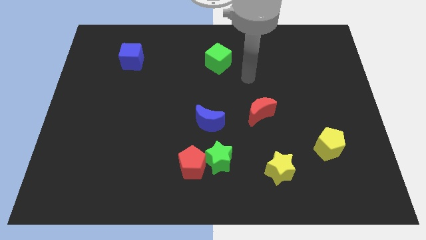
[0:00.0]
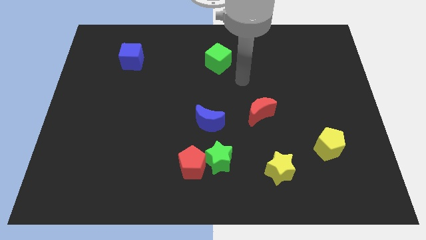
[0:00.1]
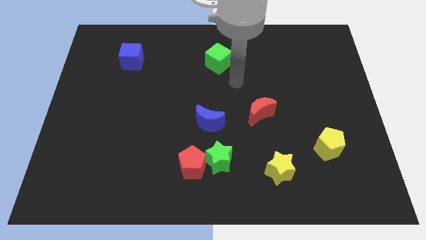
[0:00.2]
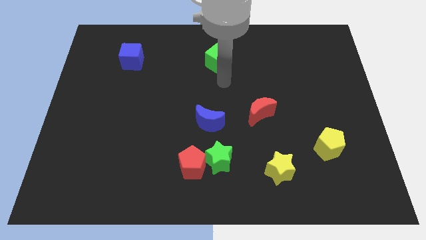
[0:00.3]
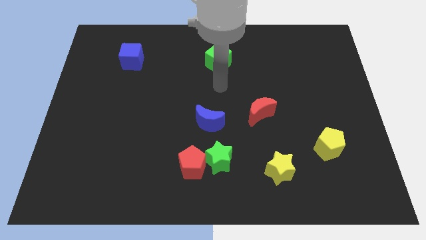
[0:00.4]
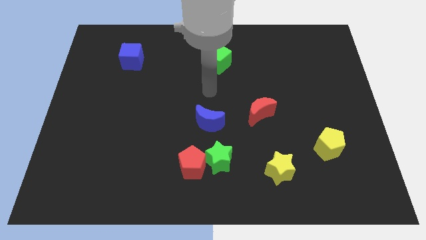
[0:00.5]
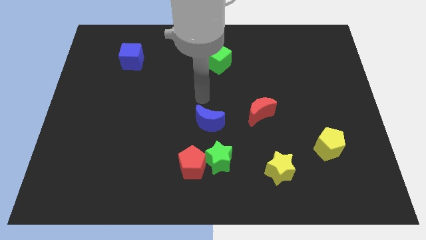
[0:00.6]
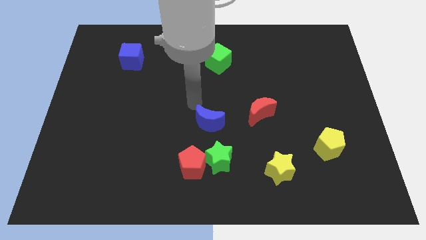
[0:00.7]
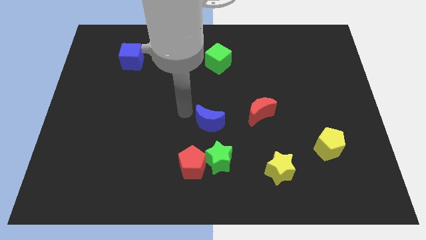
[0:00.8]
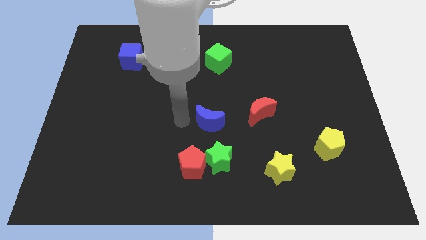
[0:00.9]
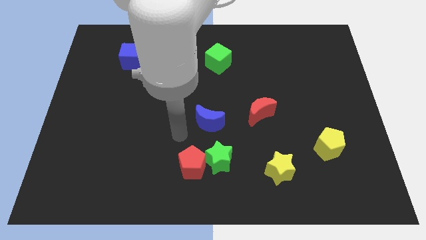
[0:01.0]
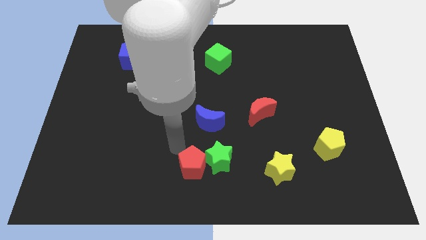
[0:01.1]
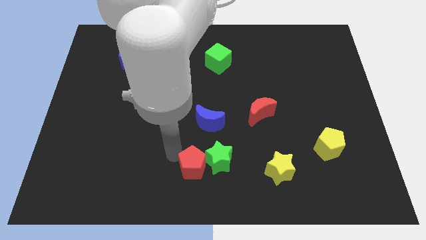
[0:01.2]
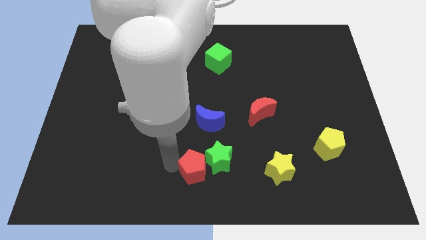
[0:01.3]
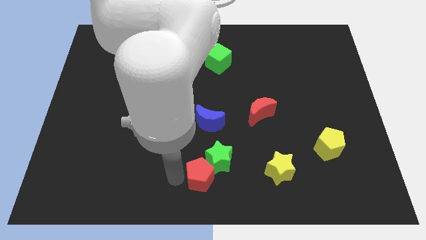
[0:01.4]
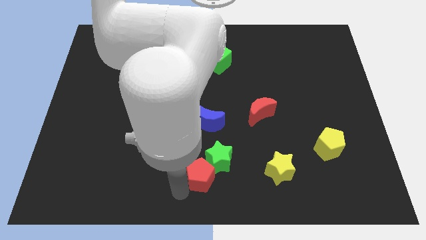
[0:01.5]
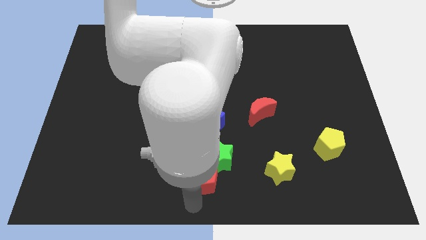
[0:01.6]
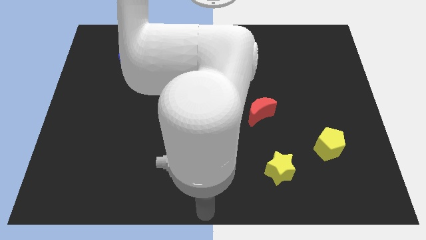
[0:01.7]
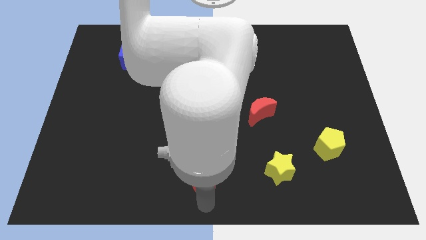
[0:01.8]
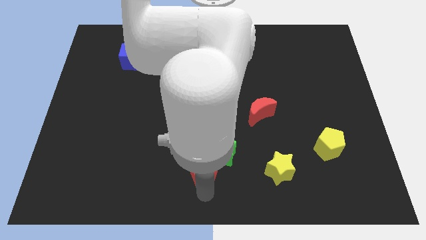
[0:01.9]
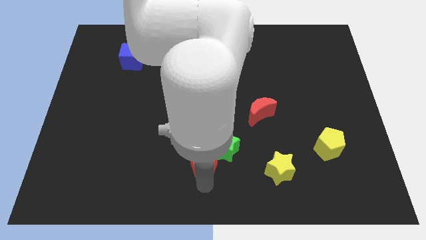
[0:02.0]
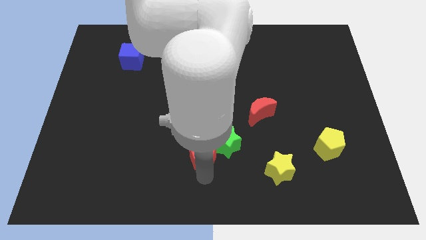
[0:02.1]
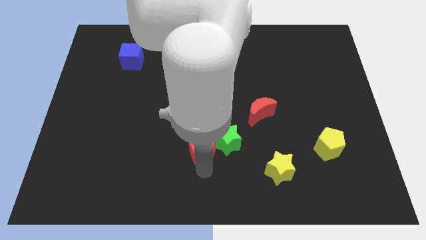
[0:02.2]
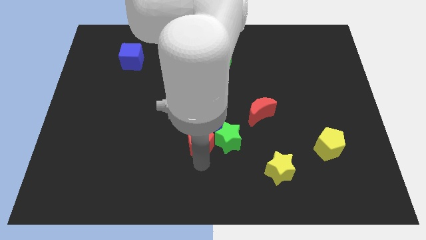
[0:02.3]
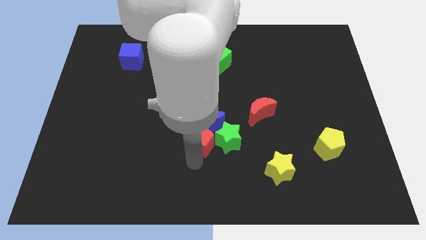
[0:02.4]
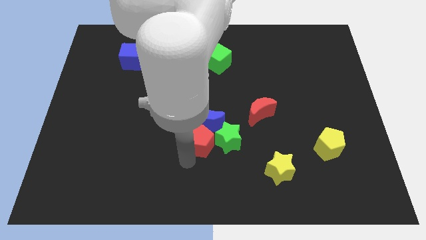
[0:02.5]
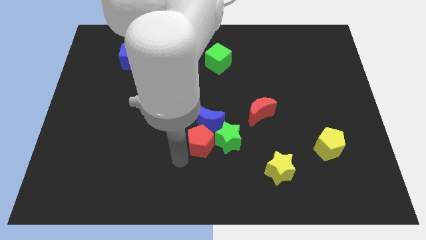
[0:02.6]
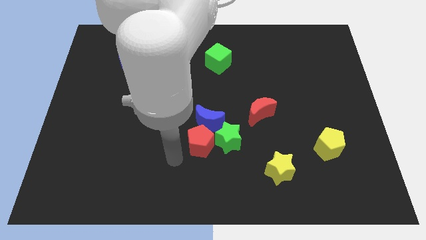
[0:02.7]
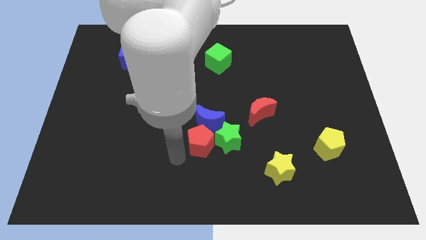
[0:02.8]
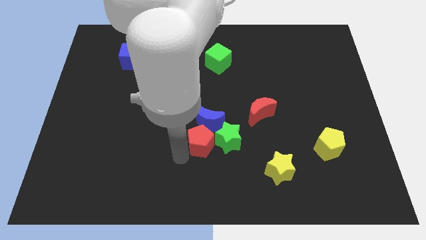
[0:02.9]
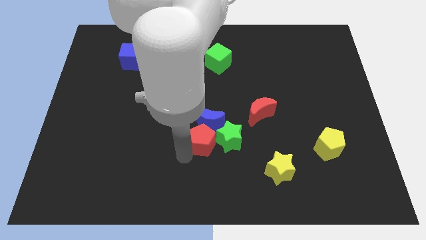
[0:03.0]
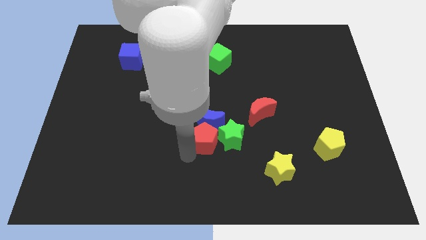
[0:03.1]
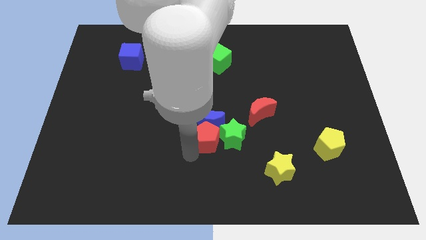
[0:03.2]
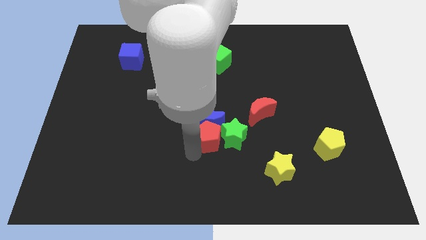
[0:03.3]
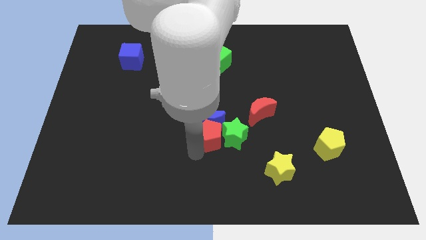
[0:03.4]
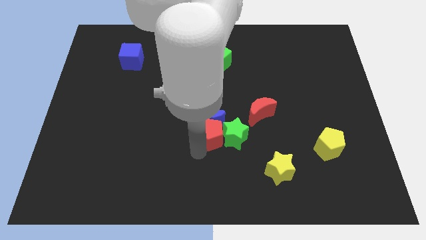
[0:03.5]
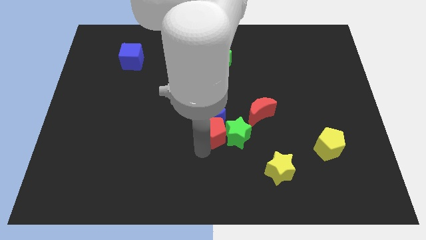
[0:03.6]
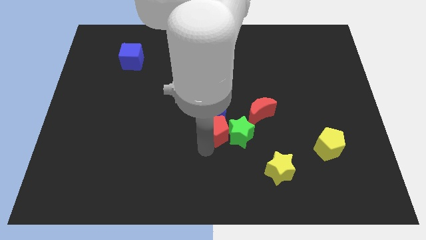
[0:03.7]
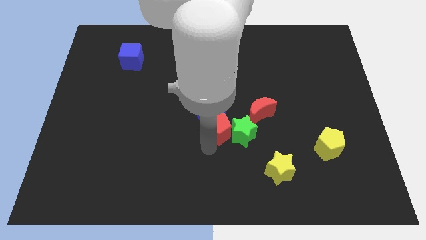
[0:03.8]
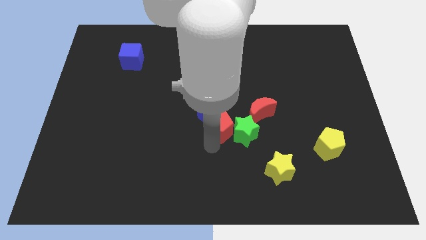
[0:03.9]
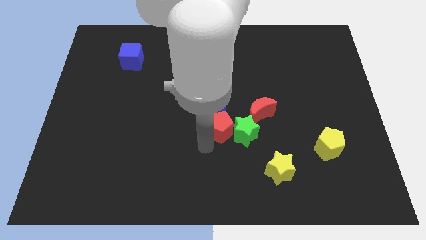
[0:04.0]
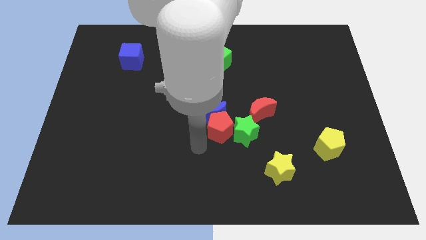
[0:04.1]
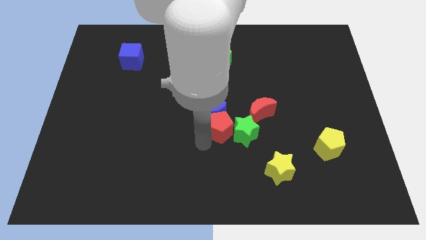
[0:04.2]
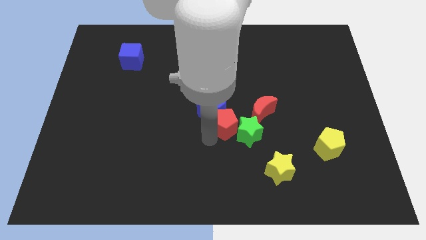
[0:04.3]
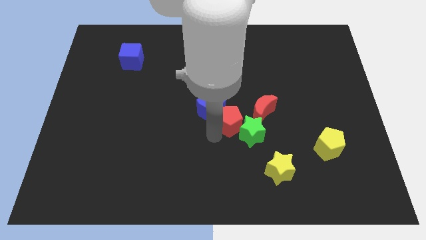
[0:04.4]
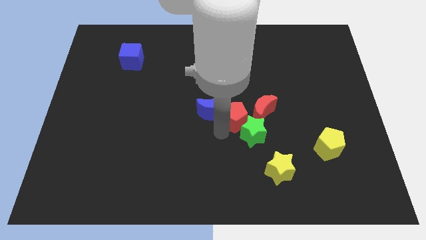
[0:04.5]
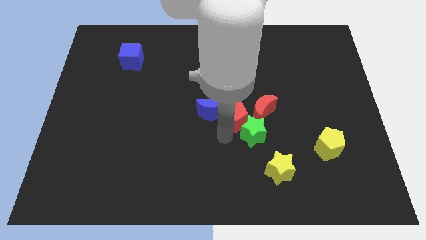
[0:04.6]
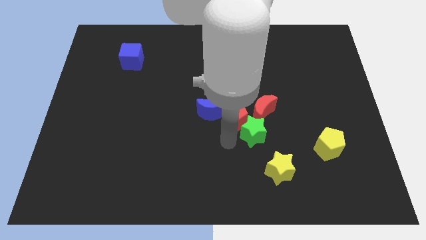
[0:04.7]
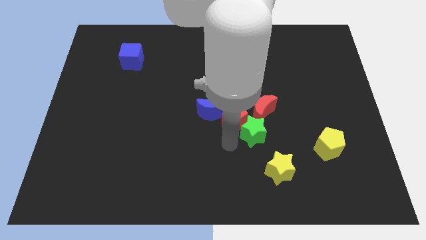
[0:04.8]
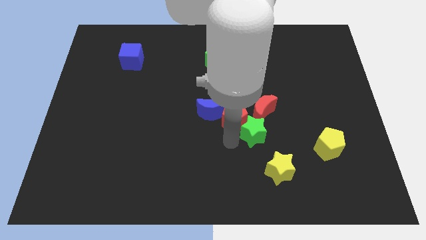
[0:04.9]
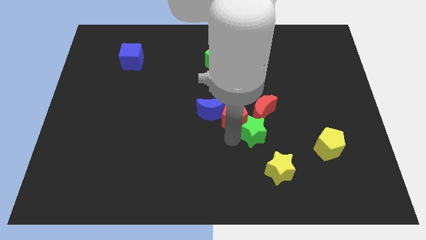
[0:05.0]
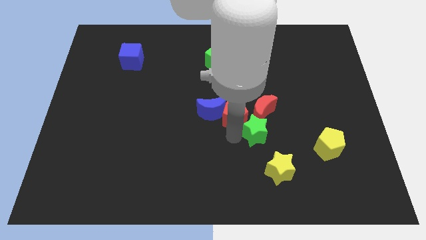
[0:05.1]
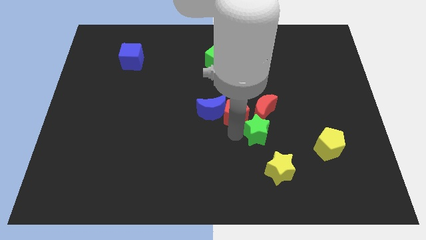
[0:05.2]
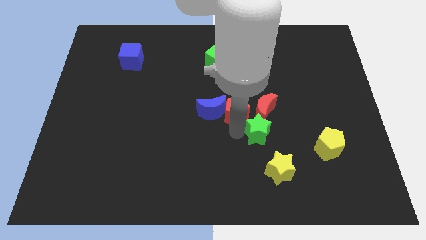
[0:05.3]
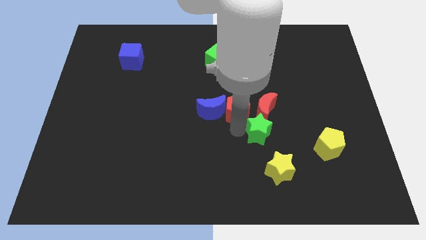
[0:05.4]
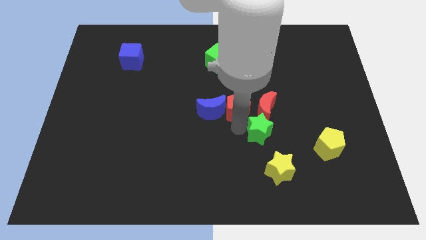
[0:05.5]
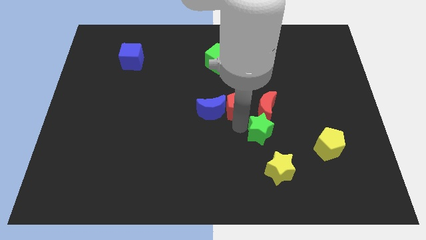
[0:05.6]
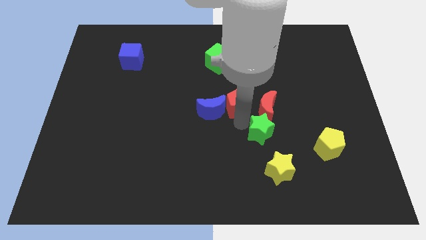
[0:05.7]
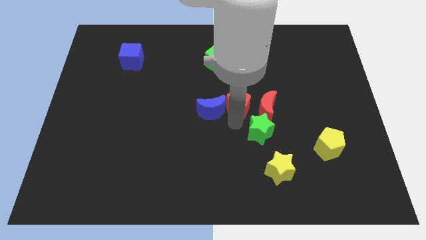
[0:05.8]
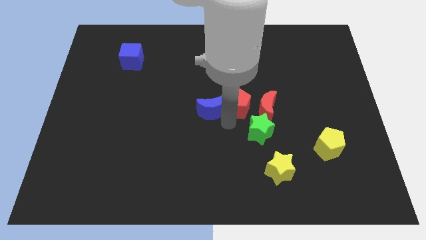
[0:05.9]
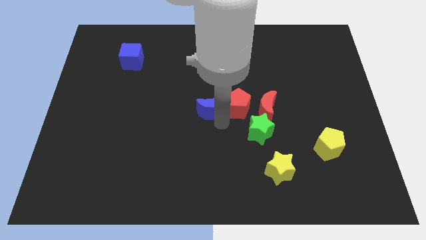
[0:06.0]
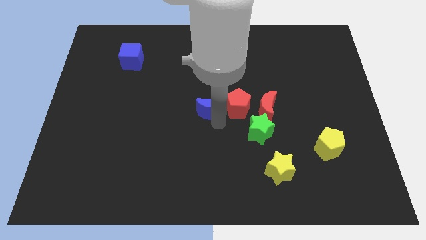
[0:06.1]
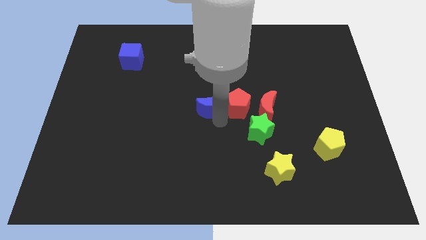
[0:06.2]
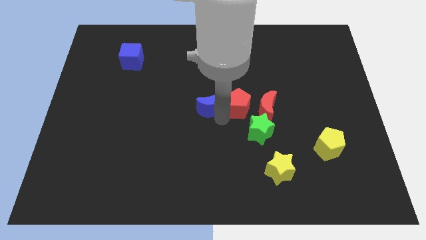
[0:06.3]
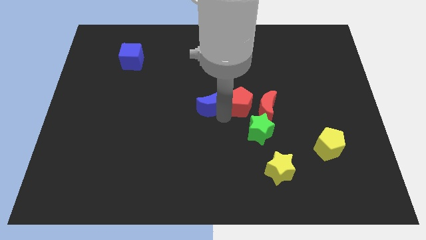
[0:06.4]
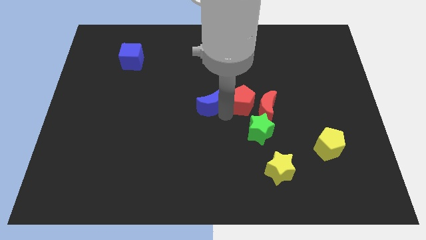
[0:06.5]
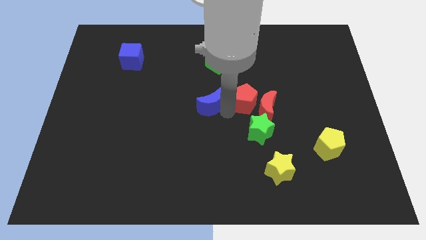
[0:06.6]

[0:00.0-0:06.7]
move the red pentagon upwards and to the right diagonally

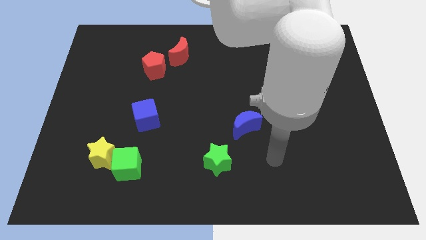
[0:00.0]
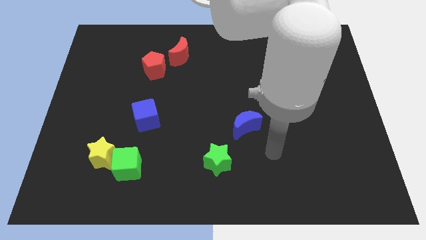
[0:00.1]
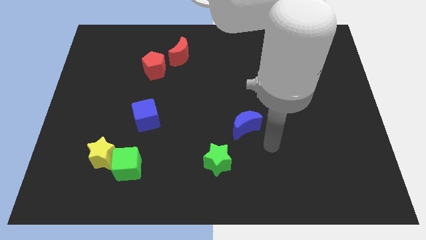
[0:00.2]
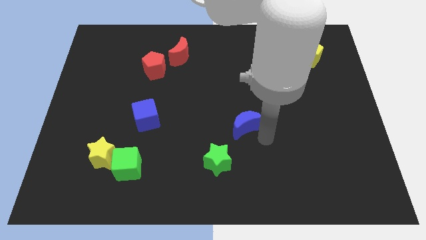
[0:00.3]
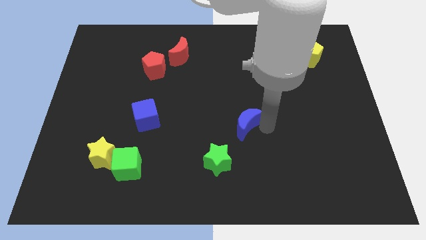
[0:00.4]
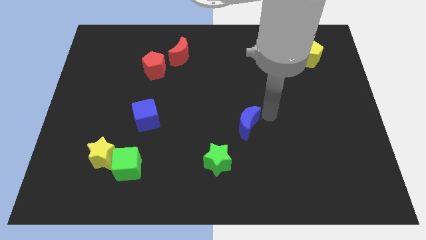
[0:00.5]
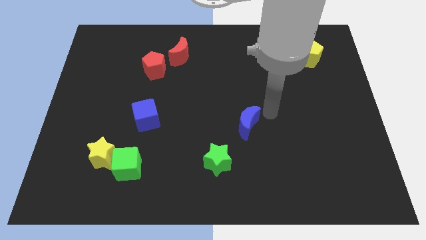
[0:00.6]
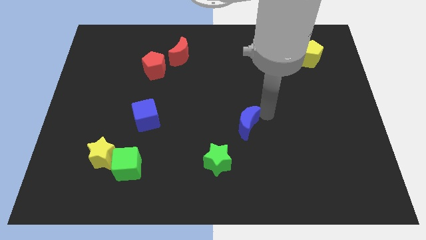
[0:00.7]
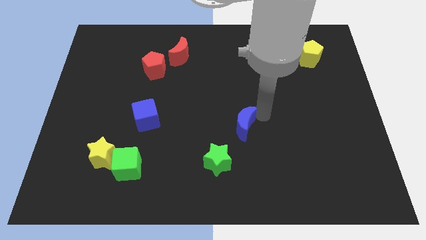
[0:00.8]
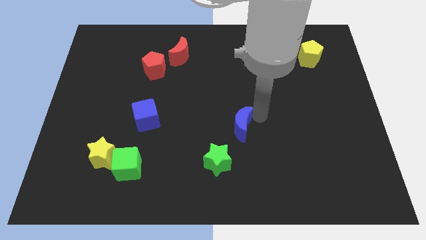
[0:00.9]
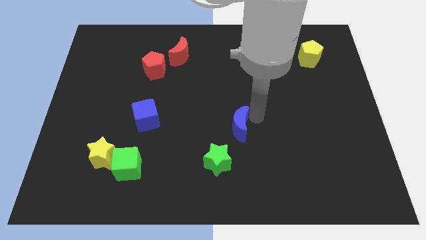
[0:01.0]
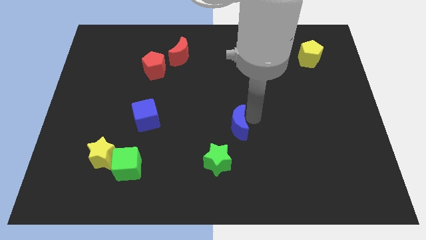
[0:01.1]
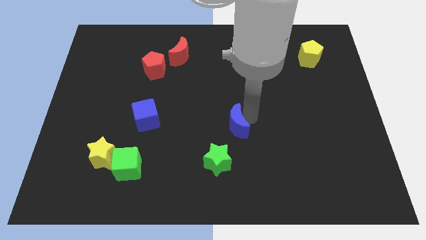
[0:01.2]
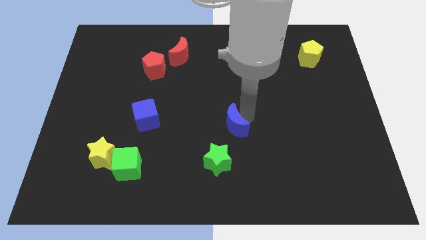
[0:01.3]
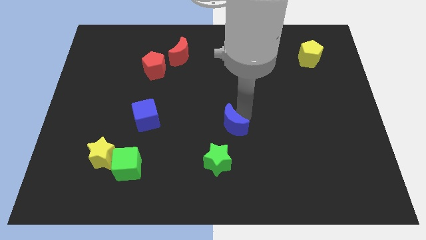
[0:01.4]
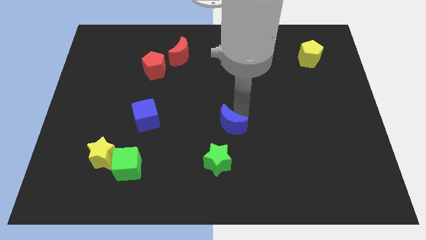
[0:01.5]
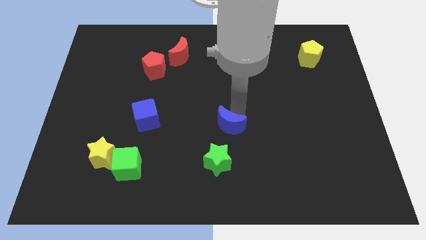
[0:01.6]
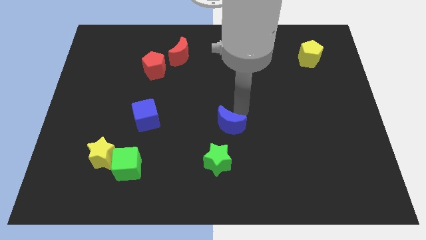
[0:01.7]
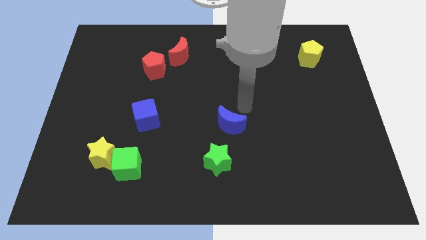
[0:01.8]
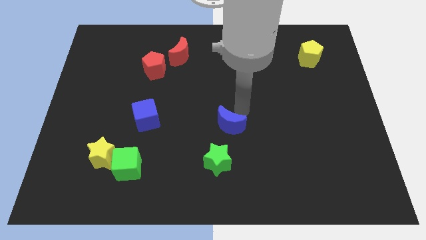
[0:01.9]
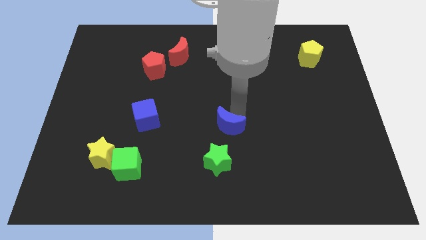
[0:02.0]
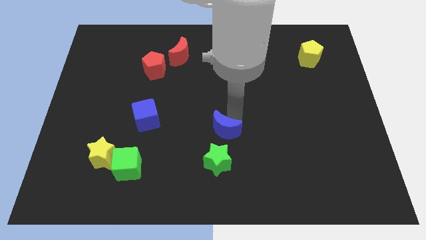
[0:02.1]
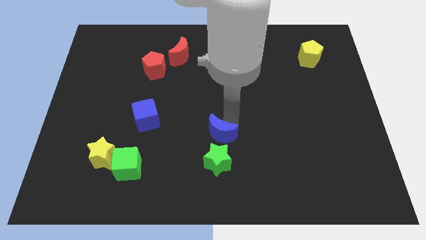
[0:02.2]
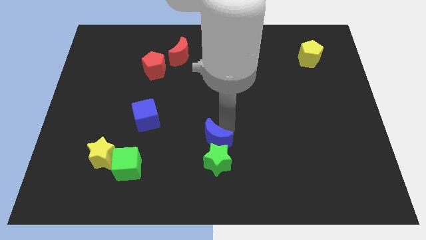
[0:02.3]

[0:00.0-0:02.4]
push the blue moon a little diagonally downwards and to the left
